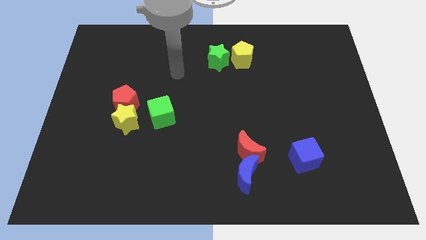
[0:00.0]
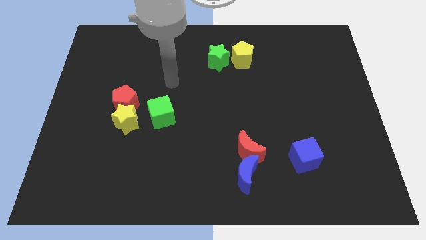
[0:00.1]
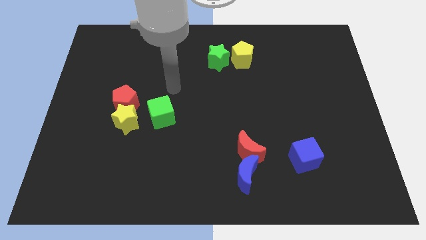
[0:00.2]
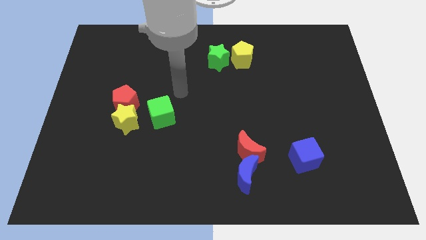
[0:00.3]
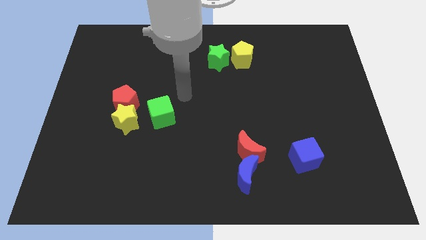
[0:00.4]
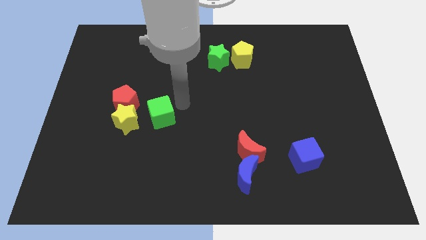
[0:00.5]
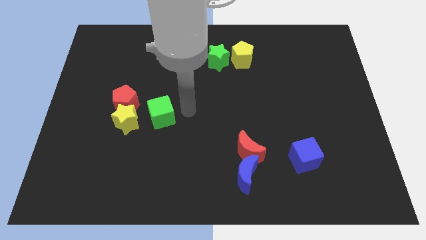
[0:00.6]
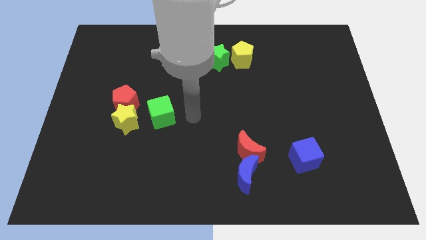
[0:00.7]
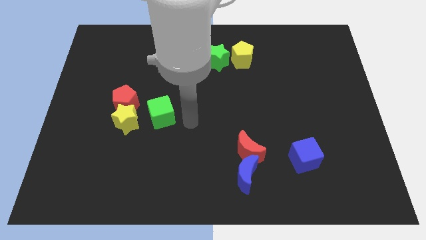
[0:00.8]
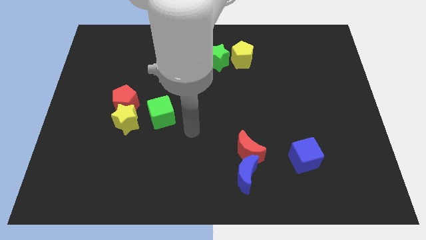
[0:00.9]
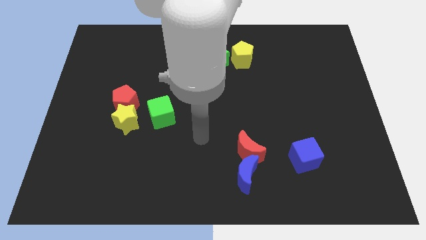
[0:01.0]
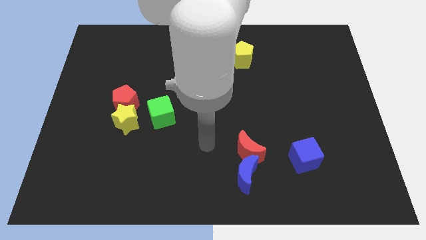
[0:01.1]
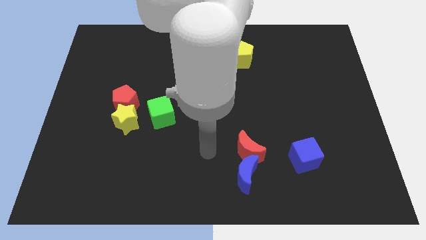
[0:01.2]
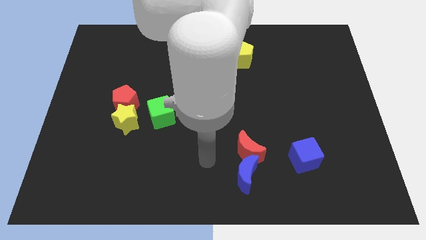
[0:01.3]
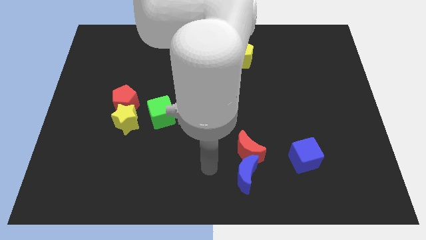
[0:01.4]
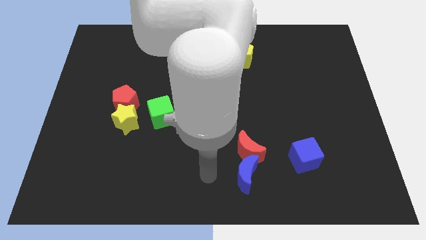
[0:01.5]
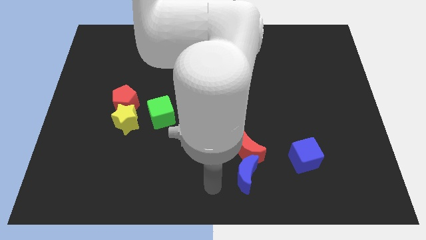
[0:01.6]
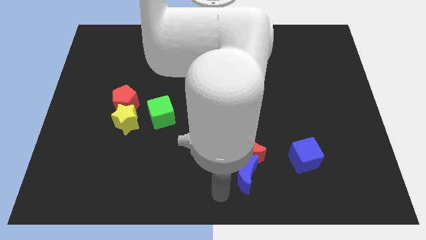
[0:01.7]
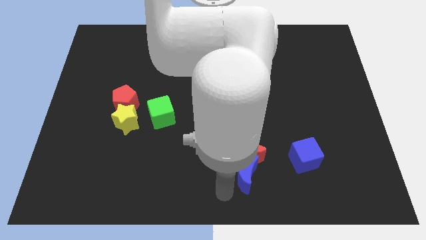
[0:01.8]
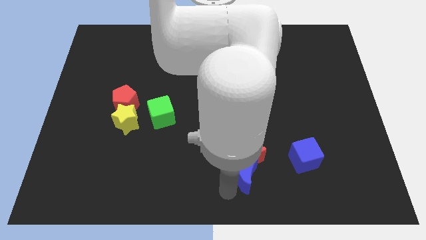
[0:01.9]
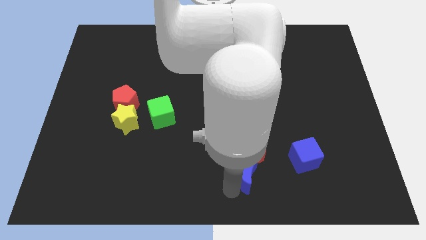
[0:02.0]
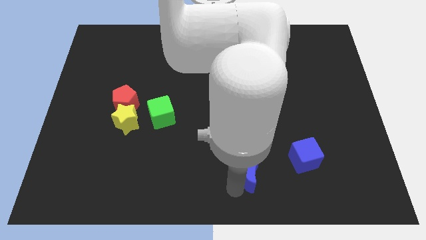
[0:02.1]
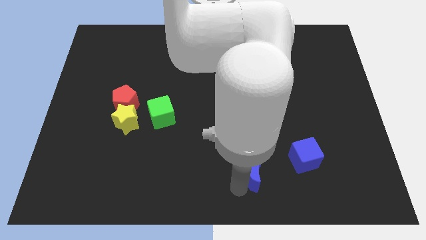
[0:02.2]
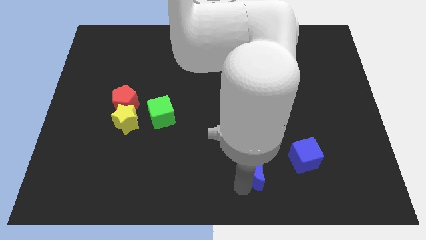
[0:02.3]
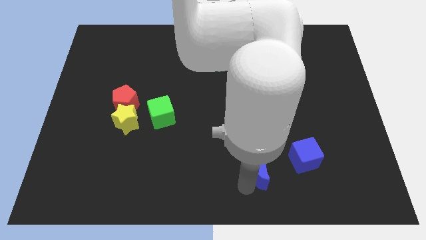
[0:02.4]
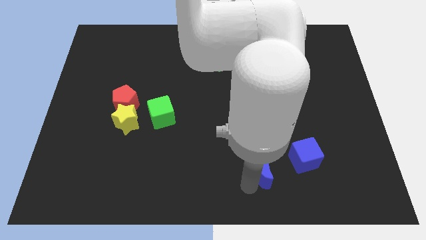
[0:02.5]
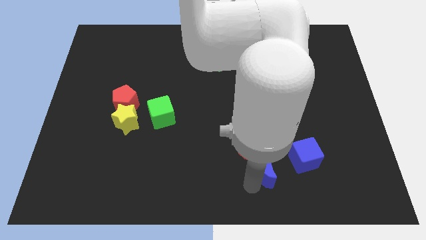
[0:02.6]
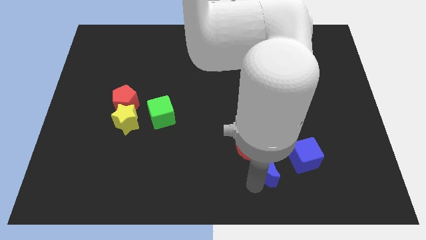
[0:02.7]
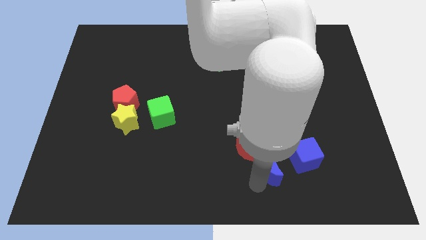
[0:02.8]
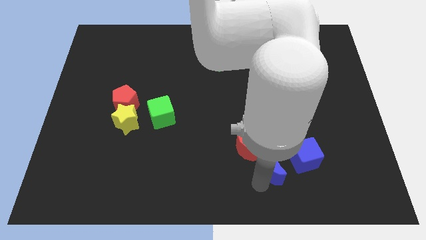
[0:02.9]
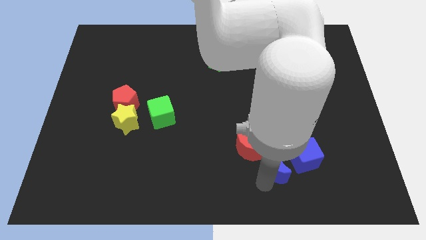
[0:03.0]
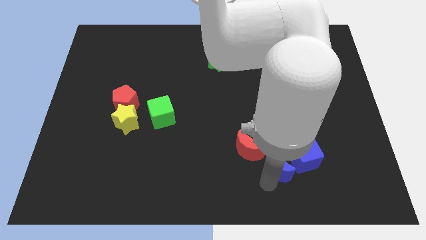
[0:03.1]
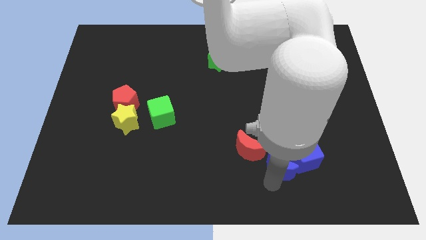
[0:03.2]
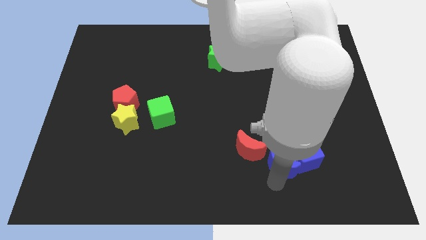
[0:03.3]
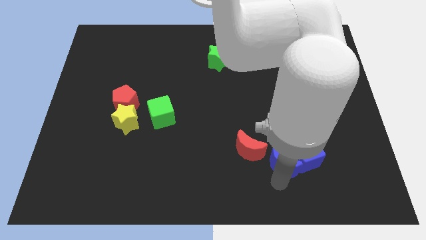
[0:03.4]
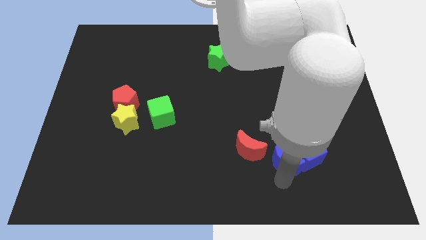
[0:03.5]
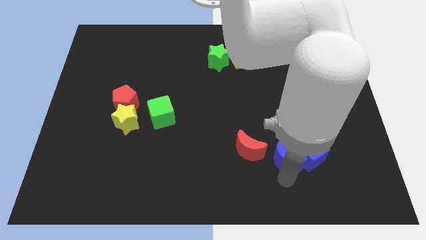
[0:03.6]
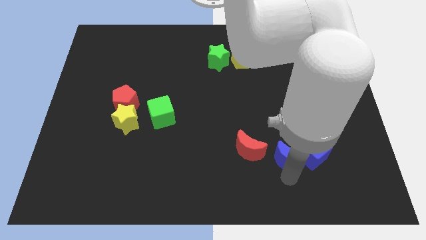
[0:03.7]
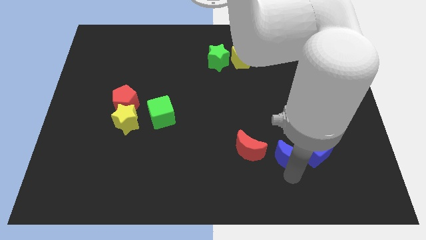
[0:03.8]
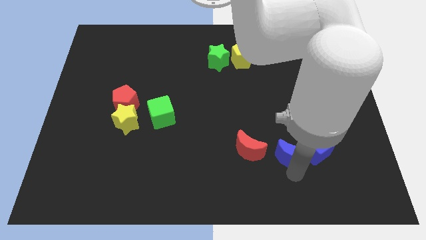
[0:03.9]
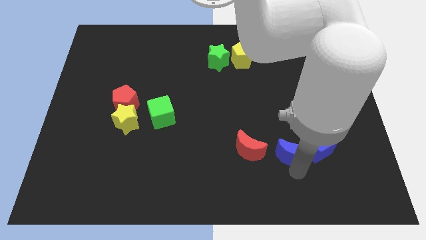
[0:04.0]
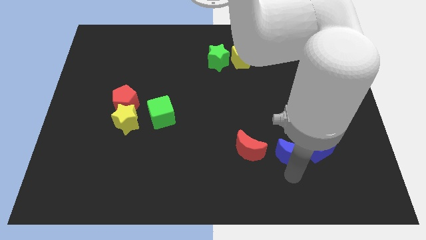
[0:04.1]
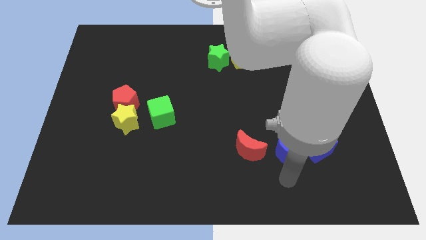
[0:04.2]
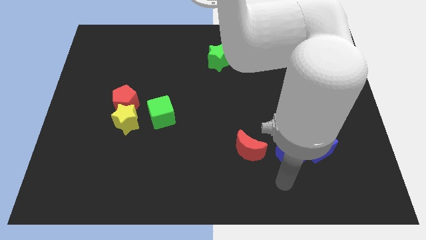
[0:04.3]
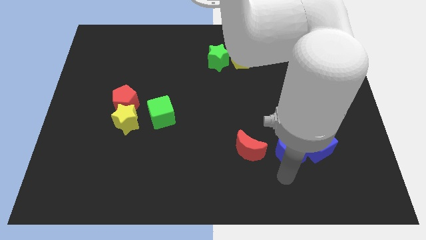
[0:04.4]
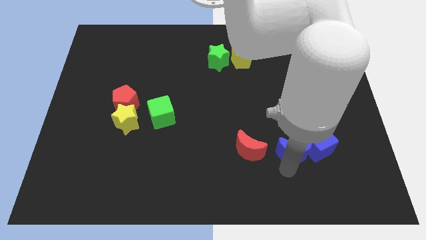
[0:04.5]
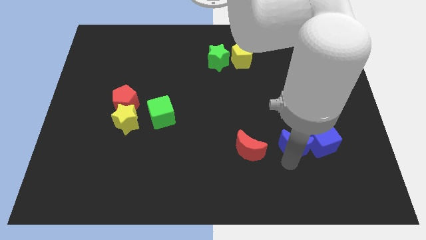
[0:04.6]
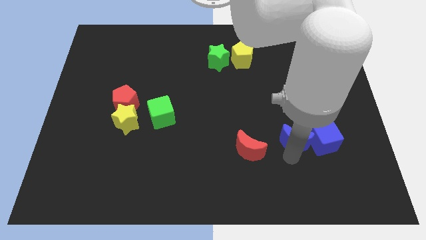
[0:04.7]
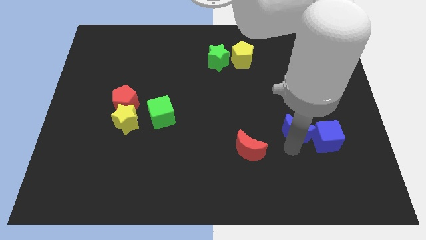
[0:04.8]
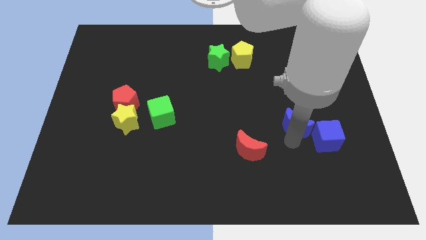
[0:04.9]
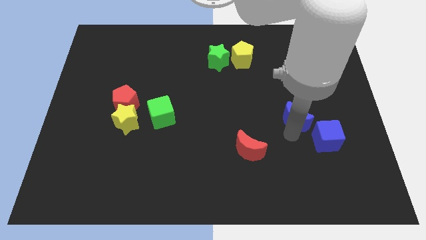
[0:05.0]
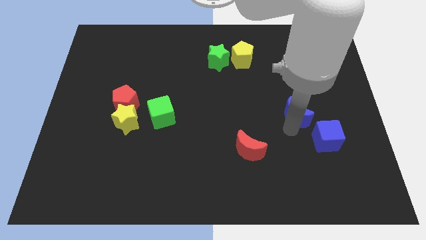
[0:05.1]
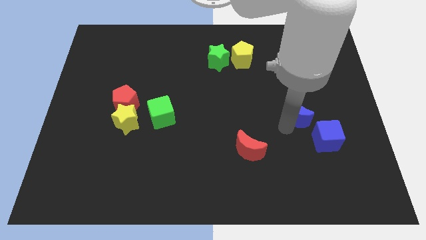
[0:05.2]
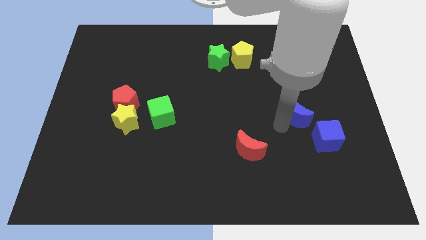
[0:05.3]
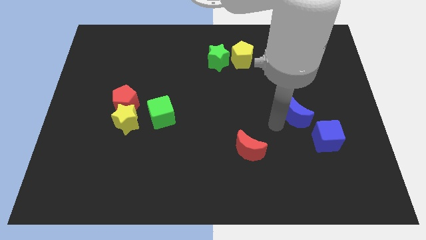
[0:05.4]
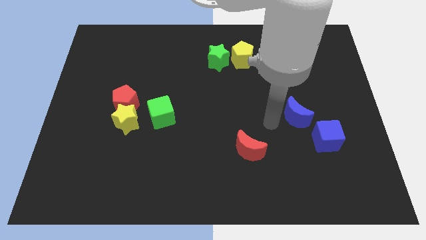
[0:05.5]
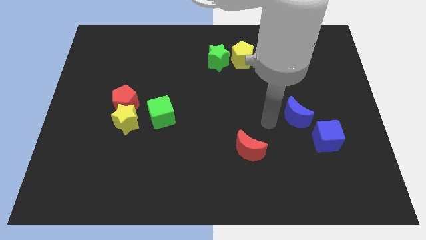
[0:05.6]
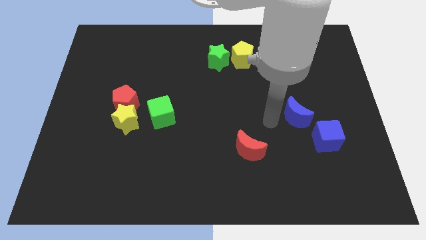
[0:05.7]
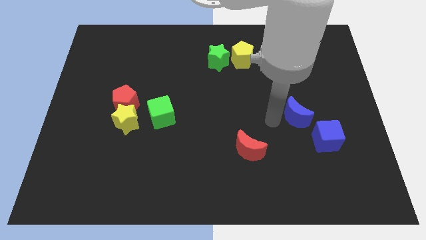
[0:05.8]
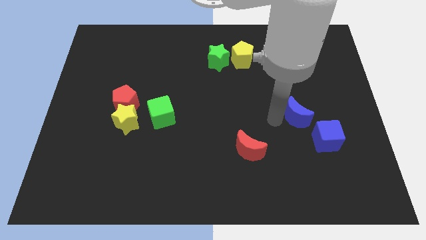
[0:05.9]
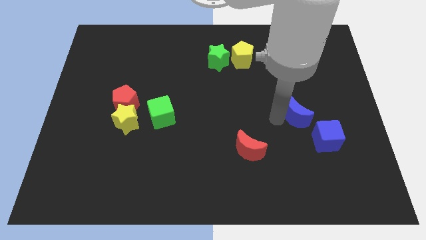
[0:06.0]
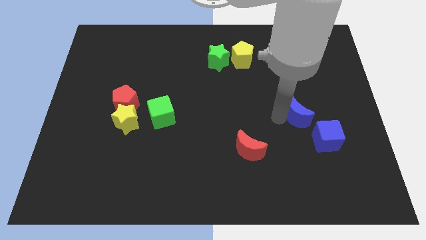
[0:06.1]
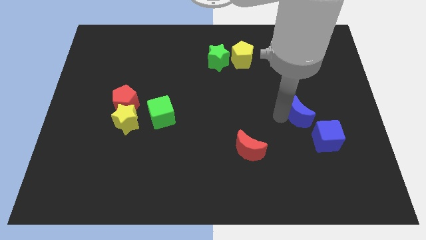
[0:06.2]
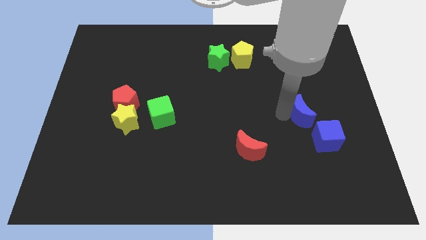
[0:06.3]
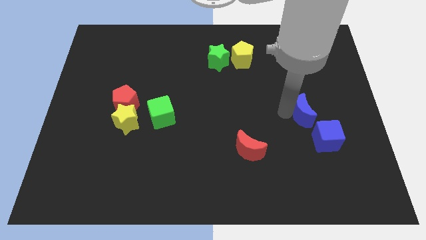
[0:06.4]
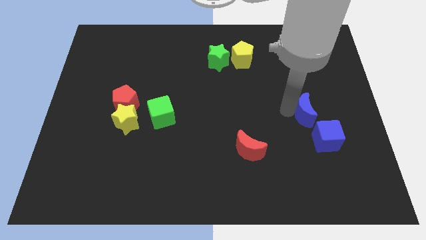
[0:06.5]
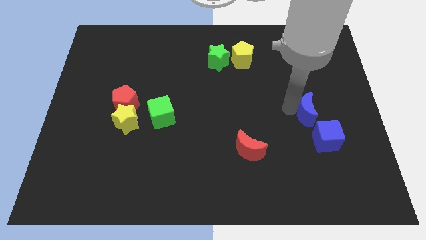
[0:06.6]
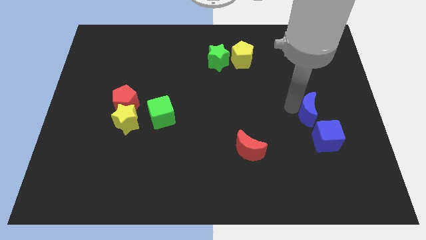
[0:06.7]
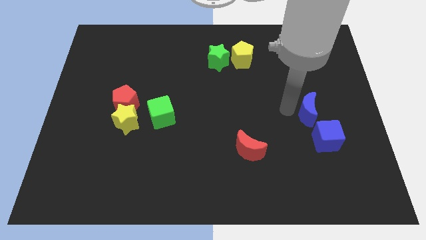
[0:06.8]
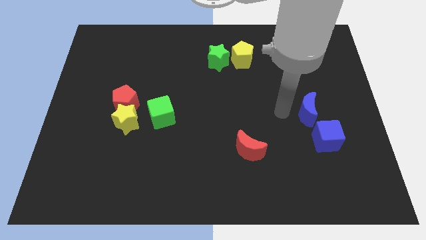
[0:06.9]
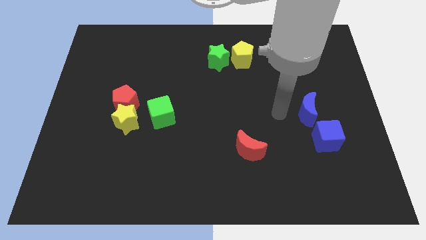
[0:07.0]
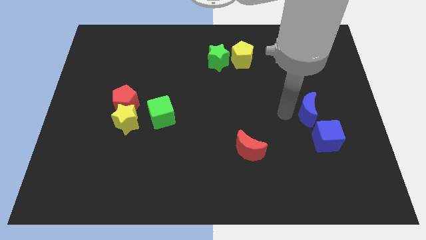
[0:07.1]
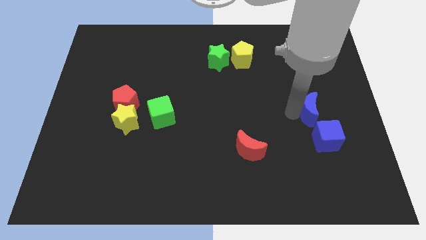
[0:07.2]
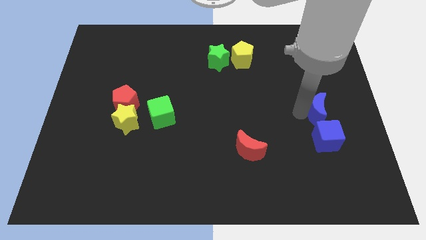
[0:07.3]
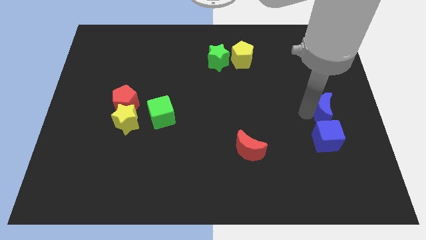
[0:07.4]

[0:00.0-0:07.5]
slide the blue moon to the right side of the board
